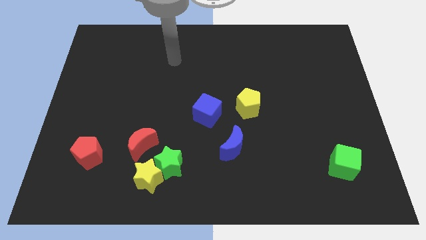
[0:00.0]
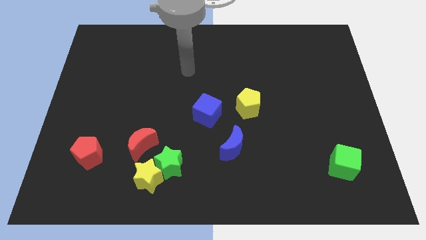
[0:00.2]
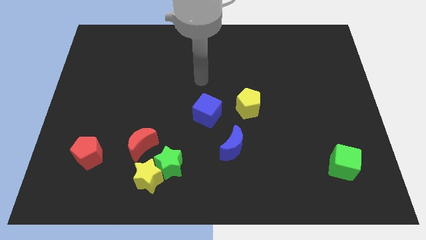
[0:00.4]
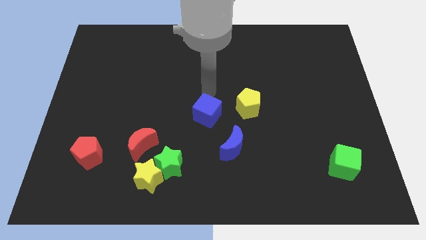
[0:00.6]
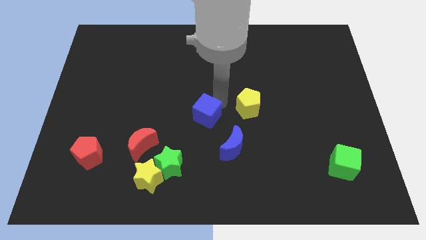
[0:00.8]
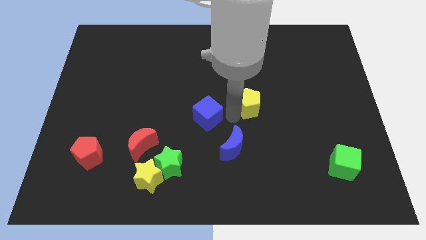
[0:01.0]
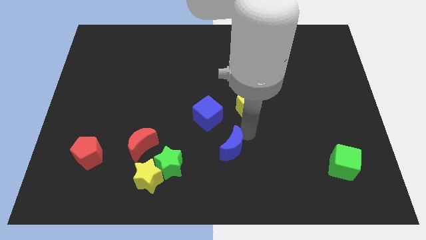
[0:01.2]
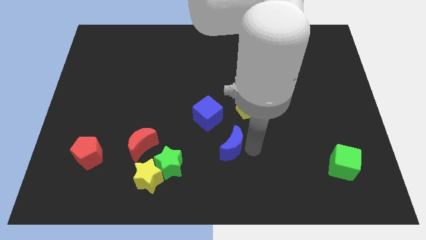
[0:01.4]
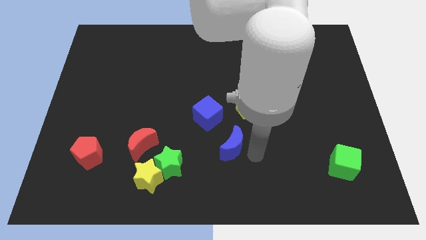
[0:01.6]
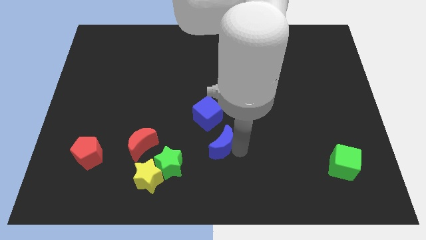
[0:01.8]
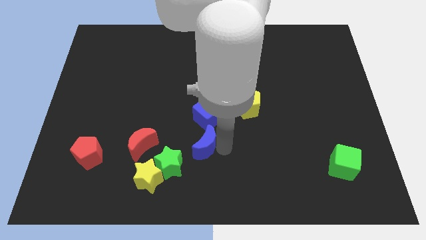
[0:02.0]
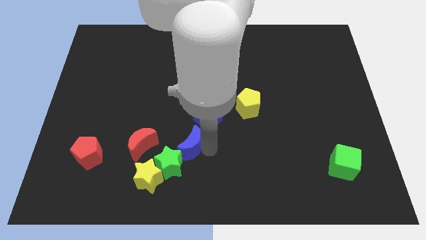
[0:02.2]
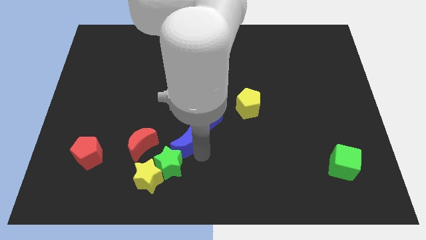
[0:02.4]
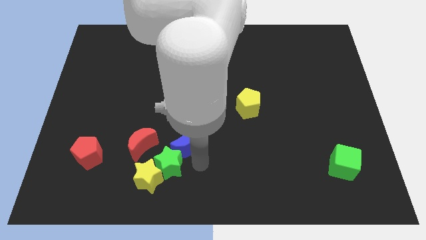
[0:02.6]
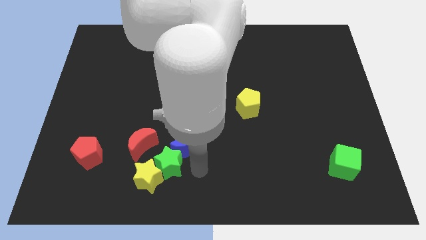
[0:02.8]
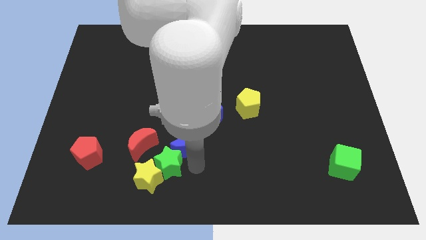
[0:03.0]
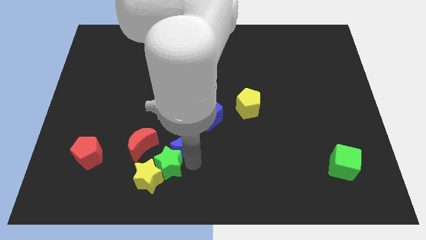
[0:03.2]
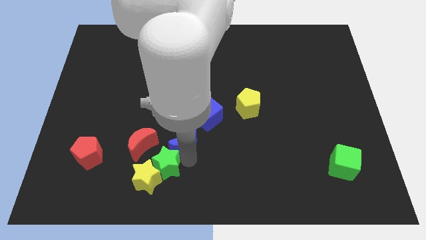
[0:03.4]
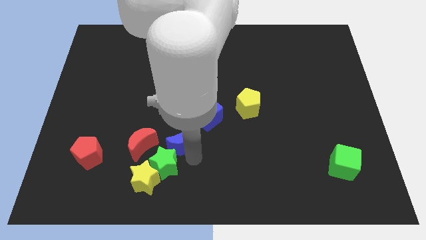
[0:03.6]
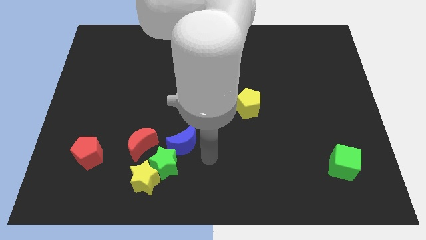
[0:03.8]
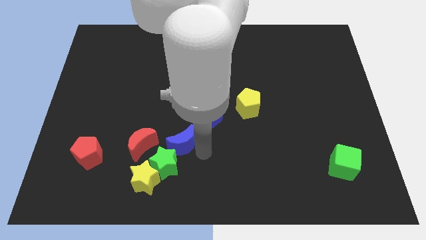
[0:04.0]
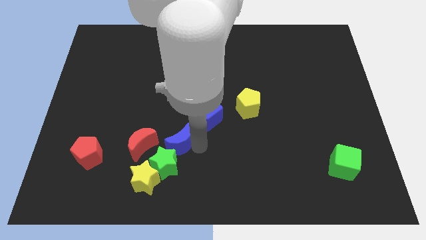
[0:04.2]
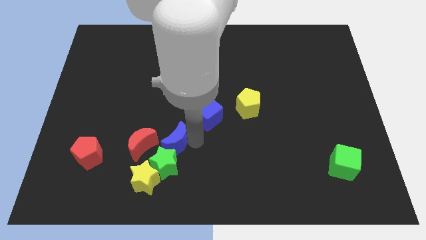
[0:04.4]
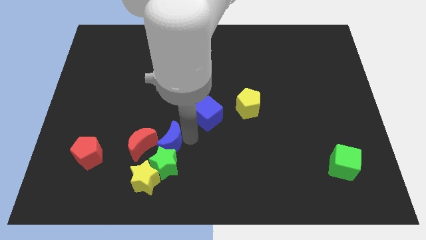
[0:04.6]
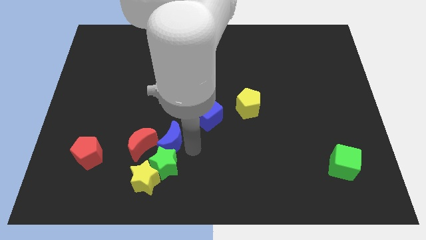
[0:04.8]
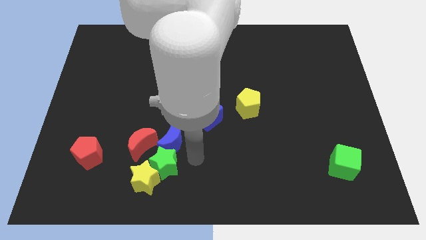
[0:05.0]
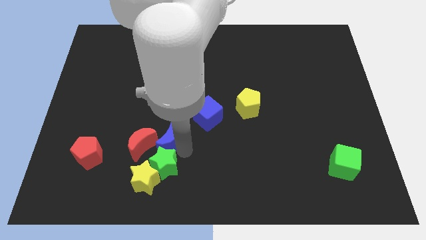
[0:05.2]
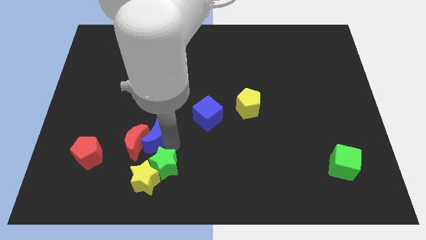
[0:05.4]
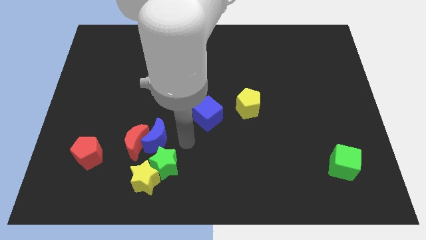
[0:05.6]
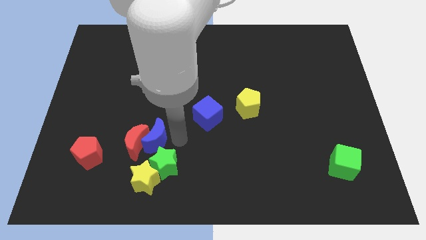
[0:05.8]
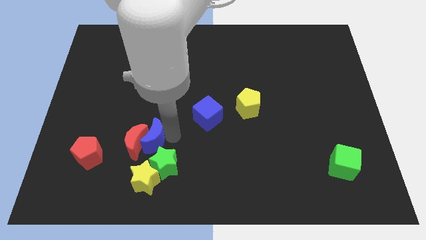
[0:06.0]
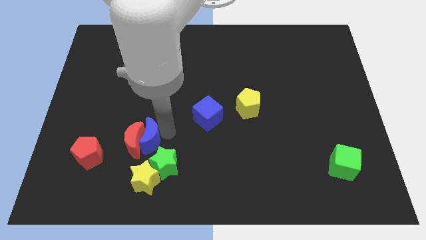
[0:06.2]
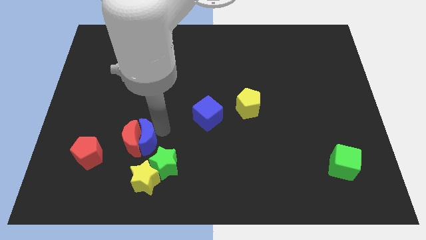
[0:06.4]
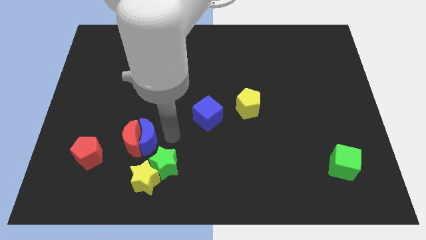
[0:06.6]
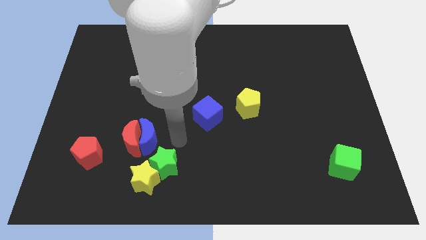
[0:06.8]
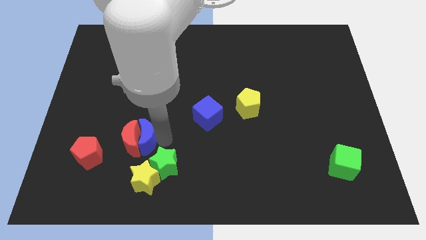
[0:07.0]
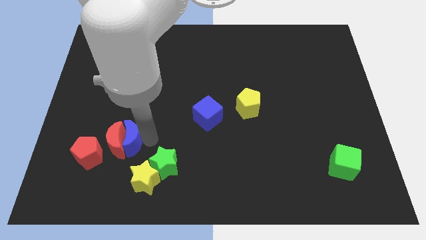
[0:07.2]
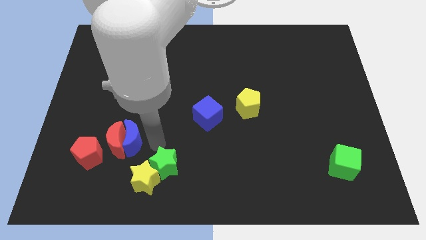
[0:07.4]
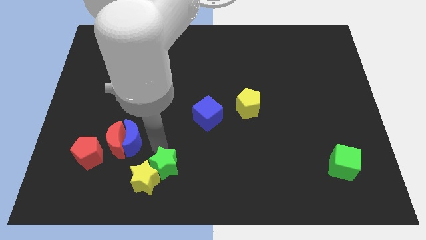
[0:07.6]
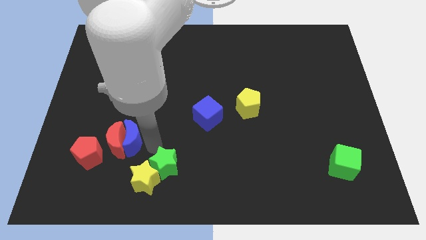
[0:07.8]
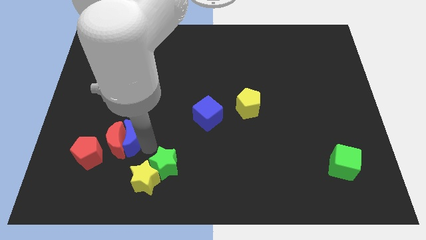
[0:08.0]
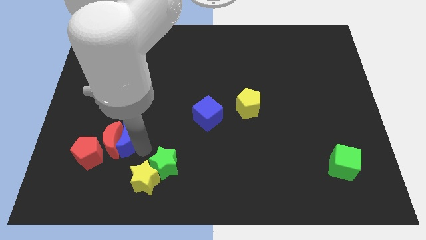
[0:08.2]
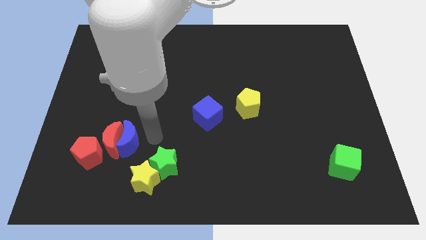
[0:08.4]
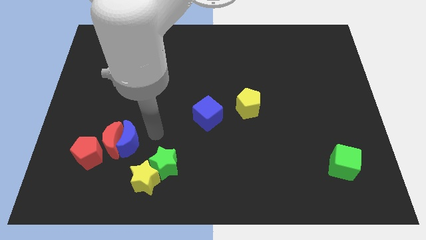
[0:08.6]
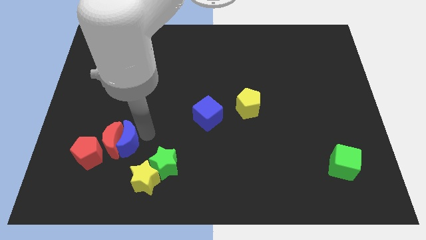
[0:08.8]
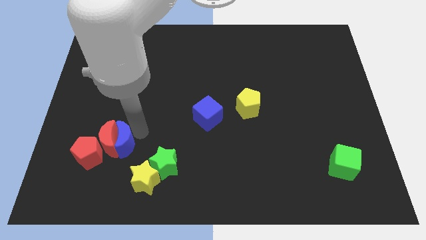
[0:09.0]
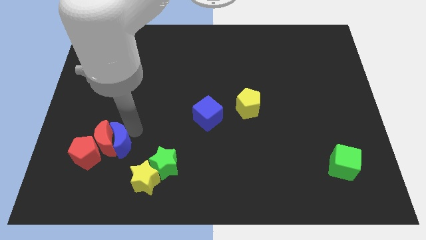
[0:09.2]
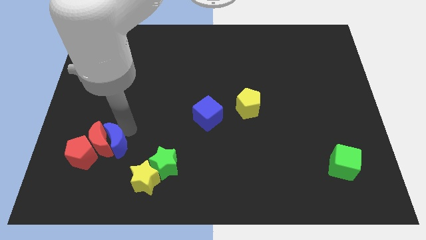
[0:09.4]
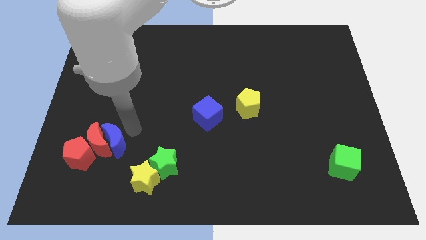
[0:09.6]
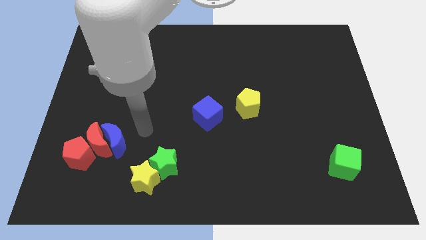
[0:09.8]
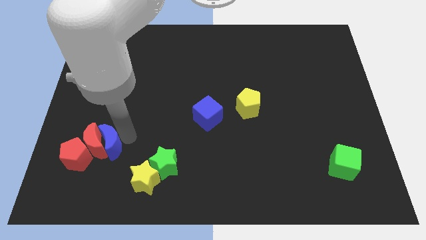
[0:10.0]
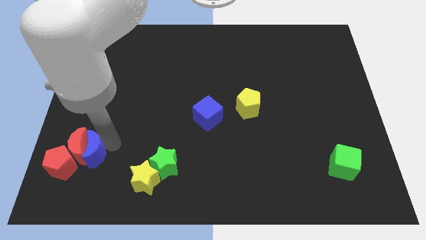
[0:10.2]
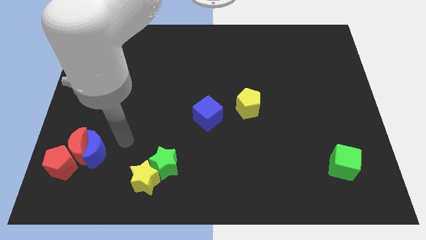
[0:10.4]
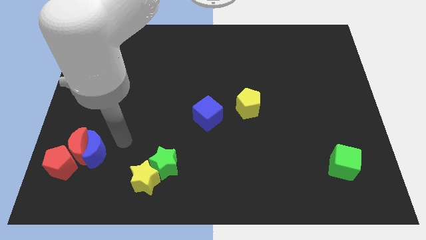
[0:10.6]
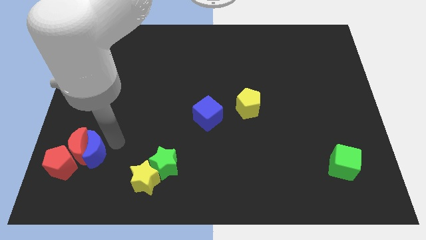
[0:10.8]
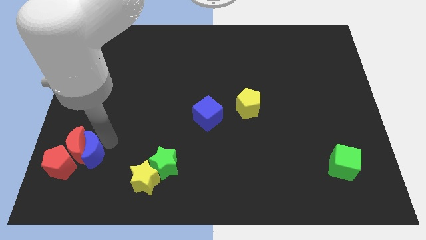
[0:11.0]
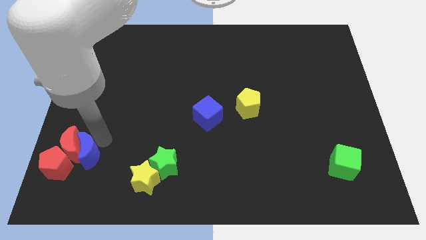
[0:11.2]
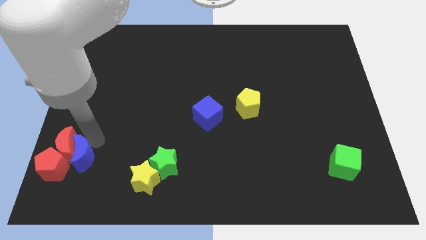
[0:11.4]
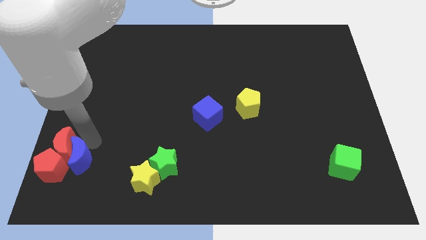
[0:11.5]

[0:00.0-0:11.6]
push the blue moon to the red pentagon

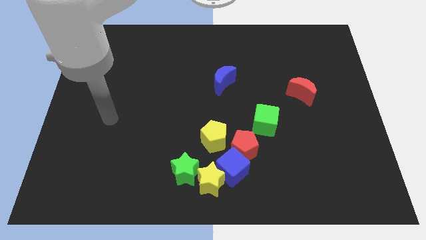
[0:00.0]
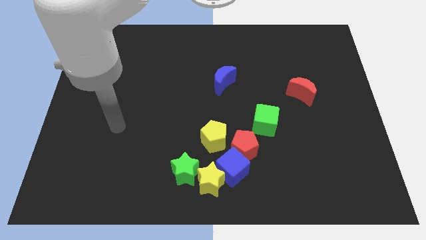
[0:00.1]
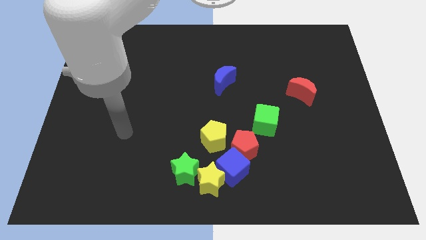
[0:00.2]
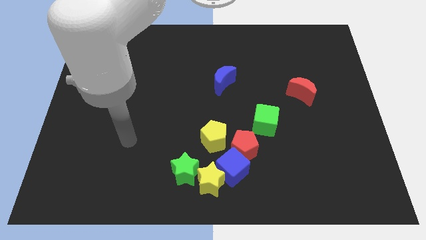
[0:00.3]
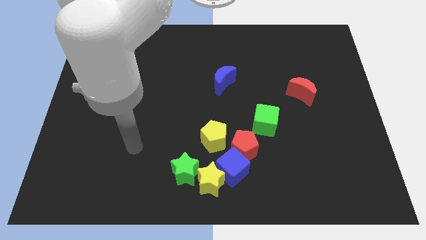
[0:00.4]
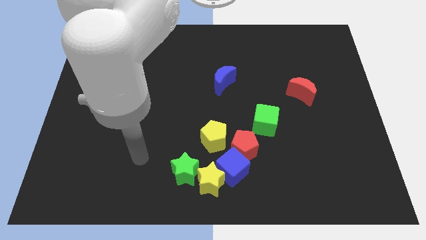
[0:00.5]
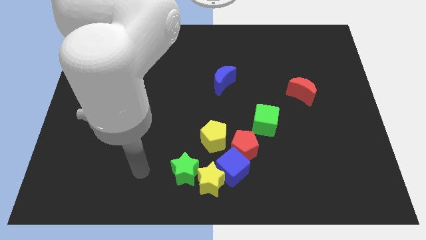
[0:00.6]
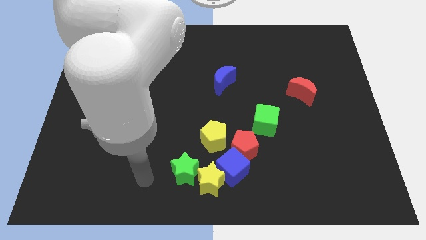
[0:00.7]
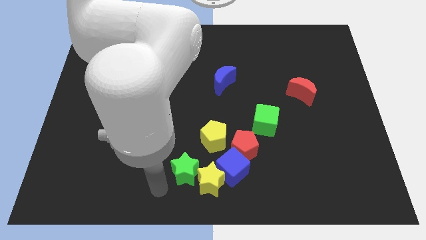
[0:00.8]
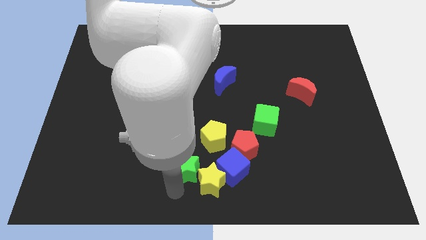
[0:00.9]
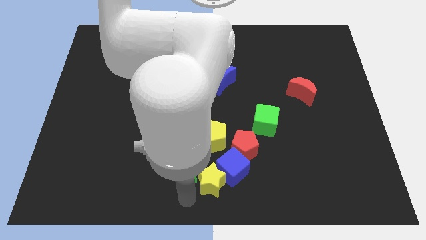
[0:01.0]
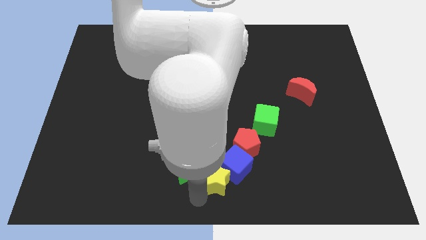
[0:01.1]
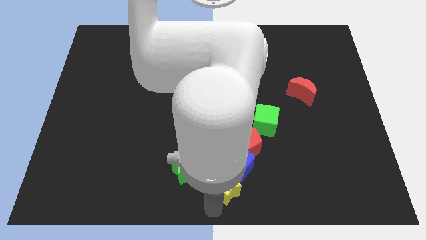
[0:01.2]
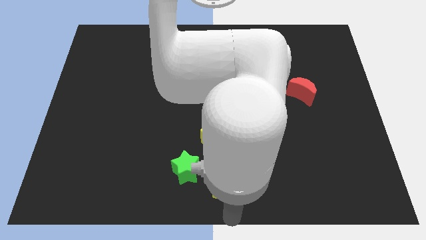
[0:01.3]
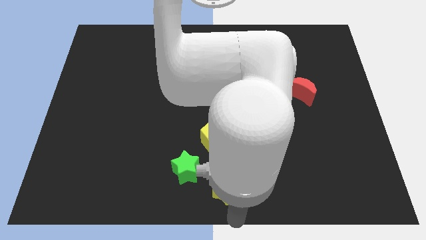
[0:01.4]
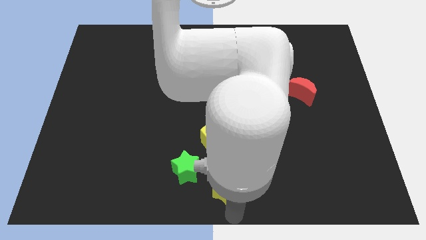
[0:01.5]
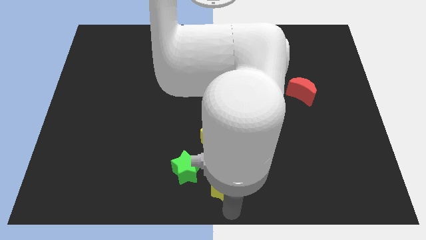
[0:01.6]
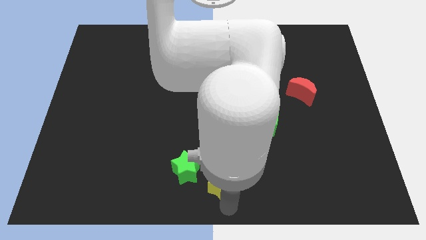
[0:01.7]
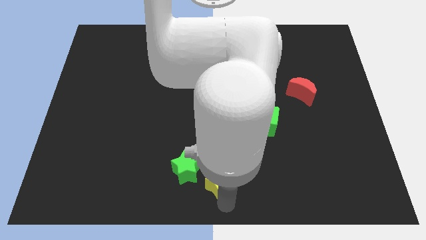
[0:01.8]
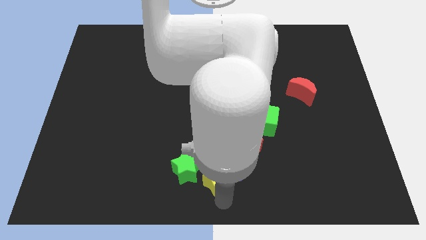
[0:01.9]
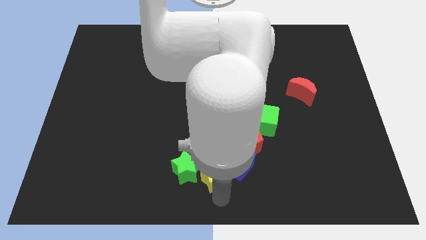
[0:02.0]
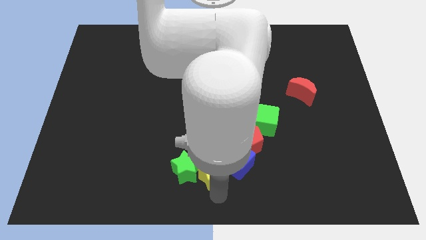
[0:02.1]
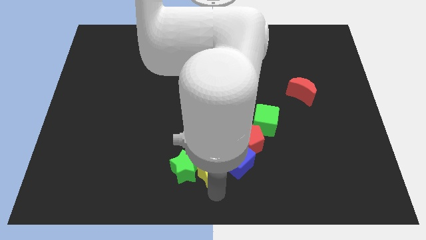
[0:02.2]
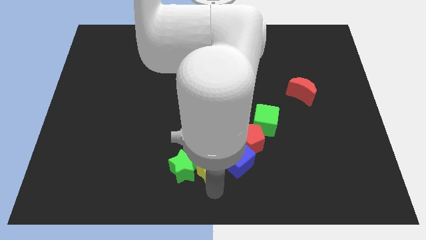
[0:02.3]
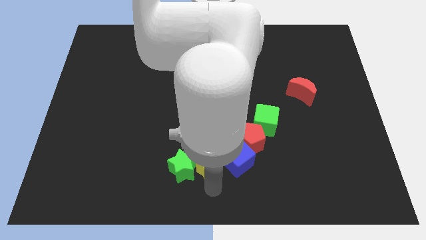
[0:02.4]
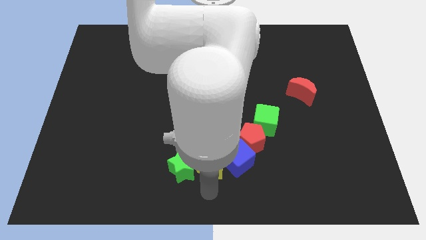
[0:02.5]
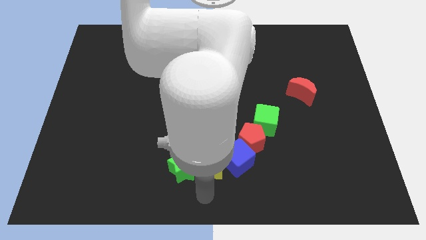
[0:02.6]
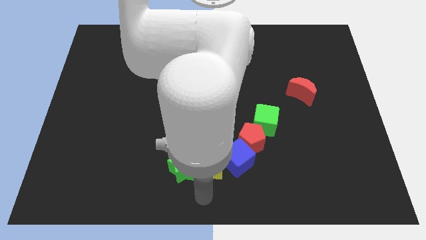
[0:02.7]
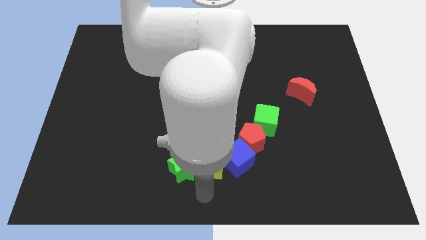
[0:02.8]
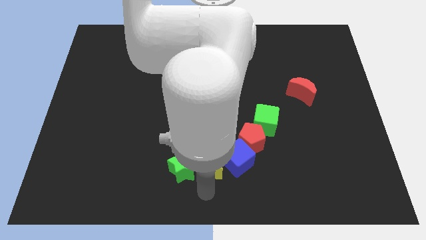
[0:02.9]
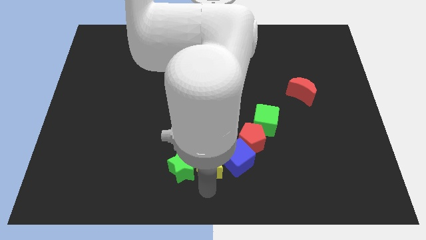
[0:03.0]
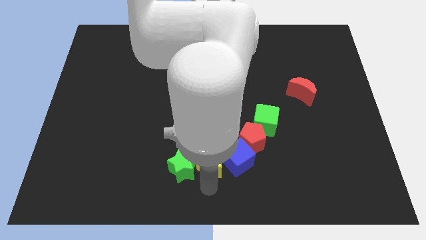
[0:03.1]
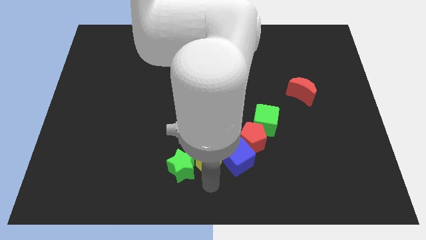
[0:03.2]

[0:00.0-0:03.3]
move the yellow star next to the yellow pentagon
